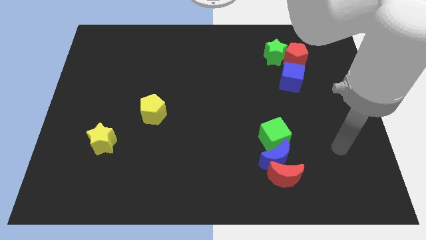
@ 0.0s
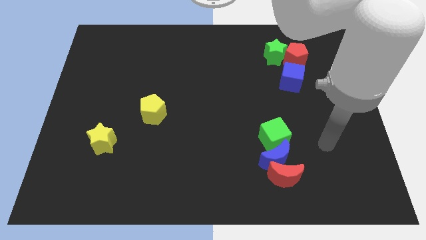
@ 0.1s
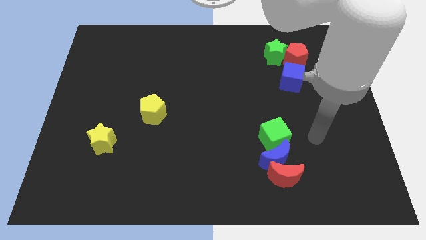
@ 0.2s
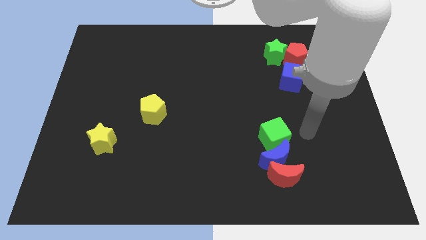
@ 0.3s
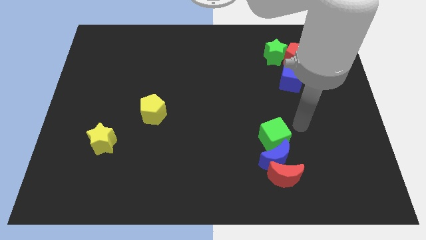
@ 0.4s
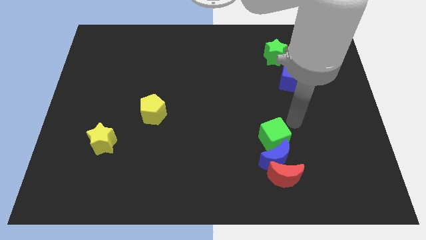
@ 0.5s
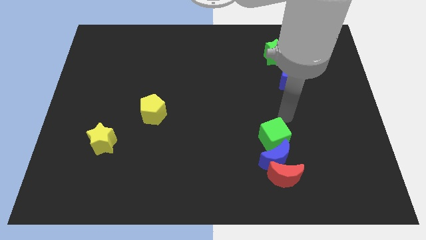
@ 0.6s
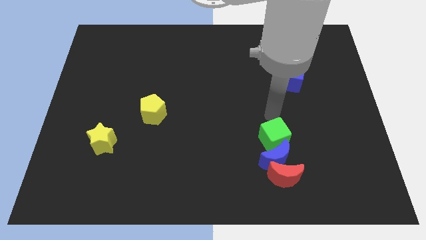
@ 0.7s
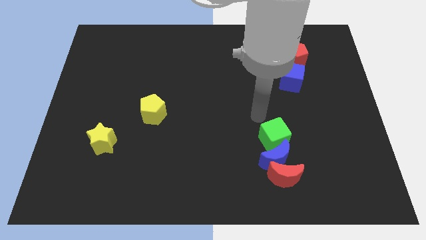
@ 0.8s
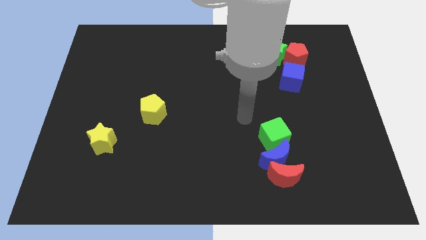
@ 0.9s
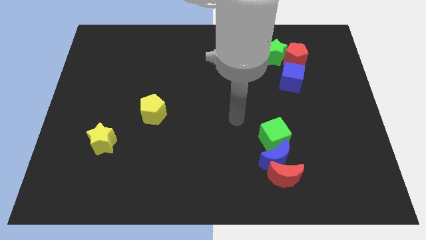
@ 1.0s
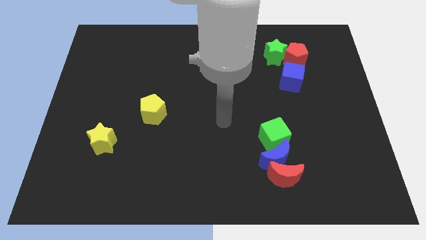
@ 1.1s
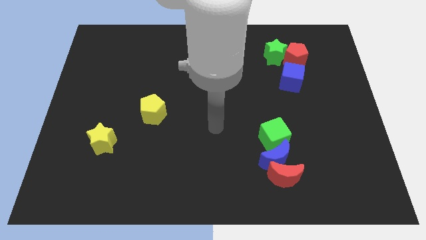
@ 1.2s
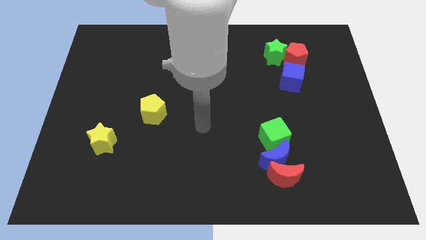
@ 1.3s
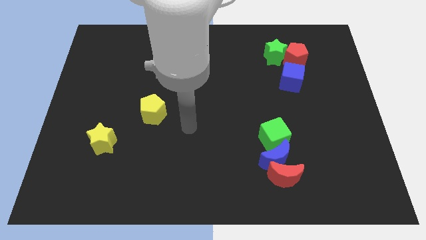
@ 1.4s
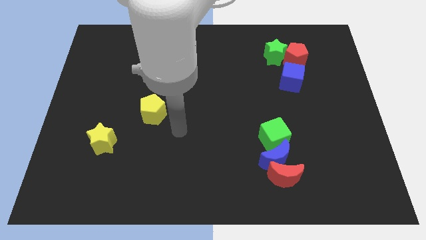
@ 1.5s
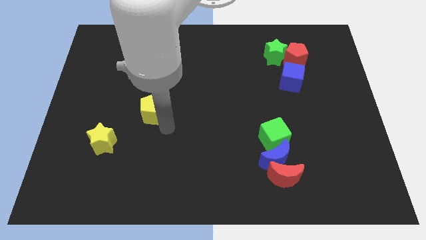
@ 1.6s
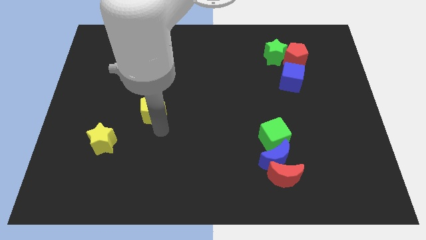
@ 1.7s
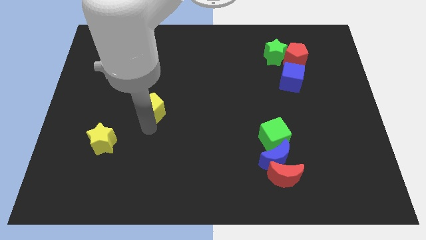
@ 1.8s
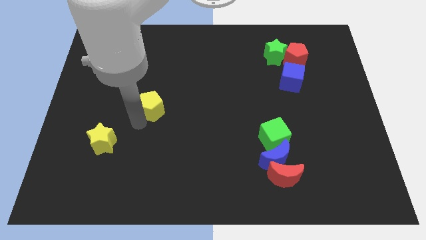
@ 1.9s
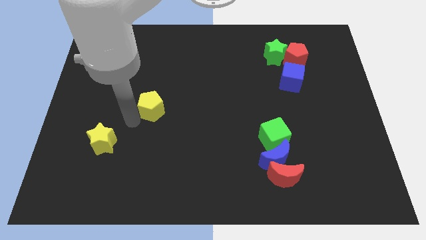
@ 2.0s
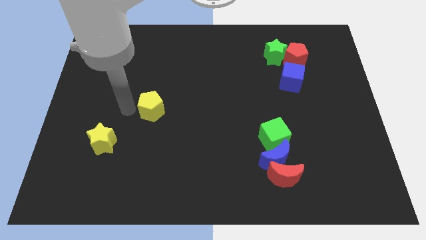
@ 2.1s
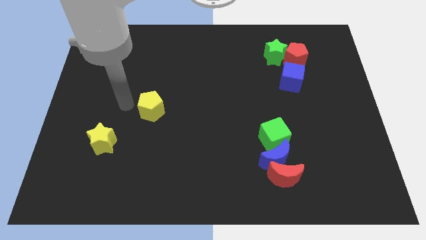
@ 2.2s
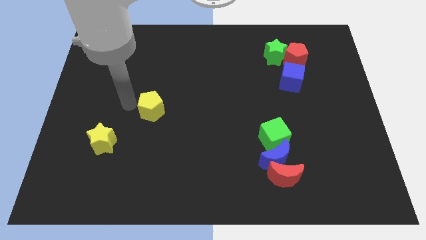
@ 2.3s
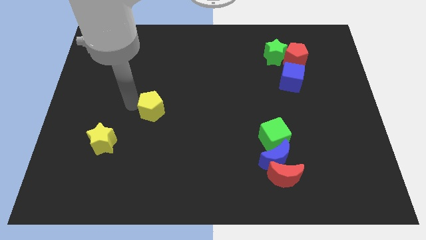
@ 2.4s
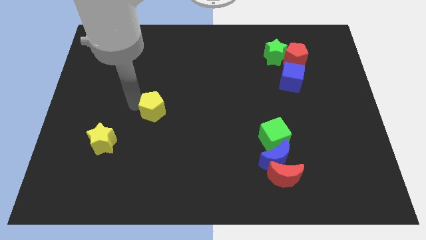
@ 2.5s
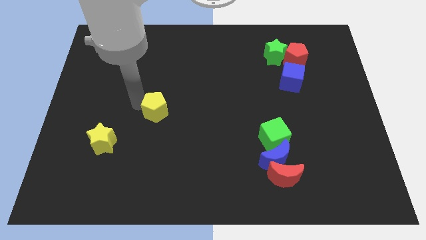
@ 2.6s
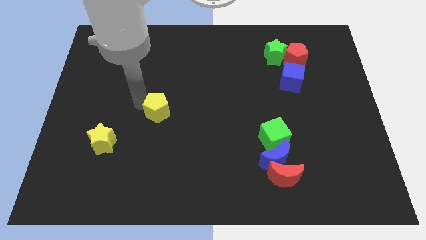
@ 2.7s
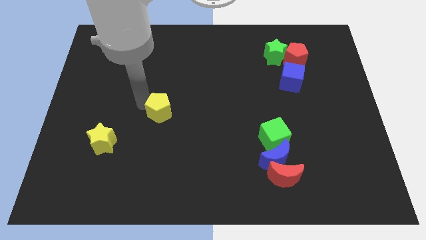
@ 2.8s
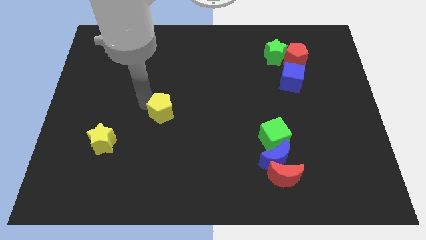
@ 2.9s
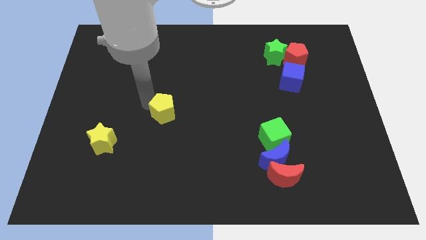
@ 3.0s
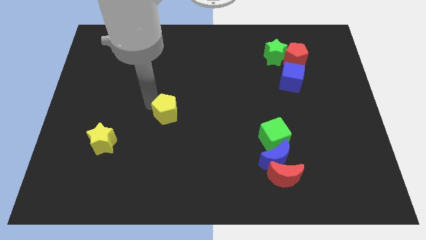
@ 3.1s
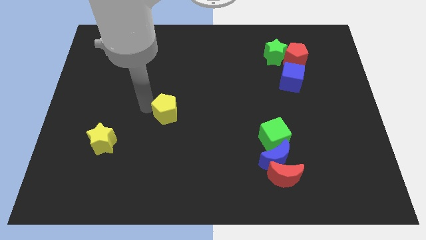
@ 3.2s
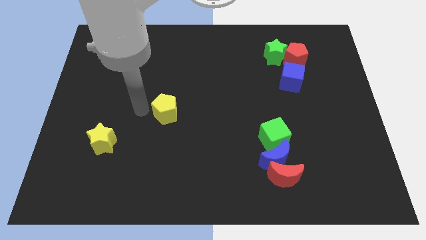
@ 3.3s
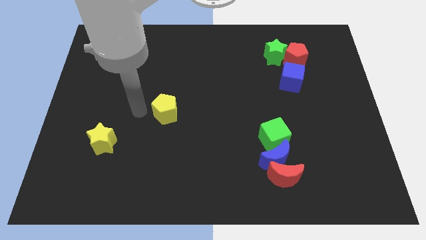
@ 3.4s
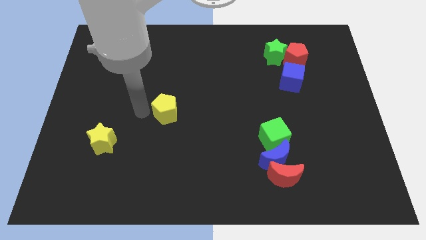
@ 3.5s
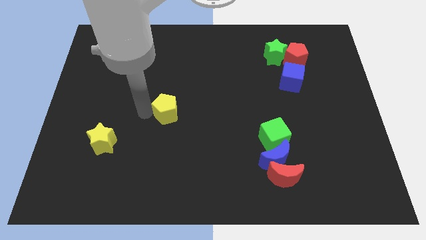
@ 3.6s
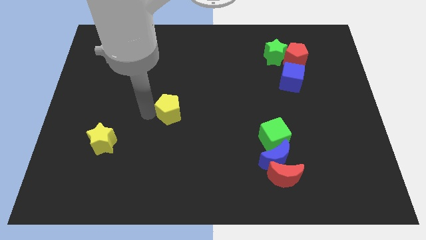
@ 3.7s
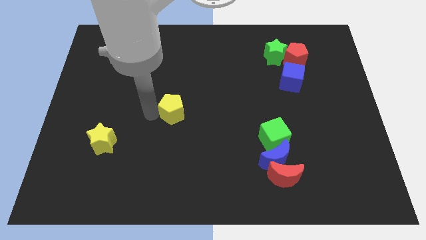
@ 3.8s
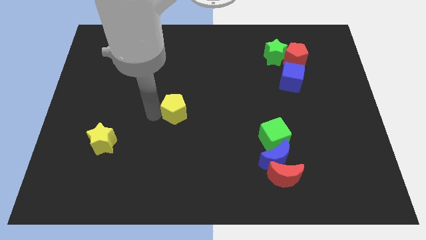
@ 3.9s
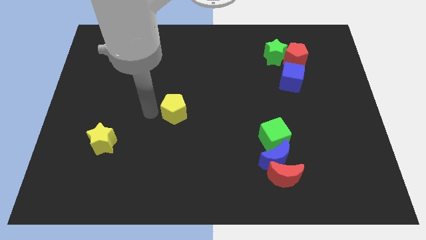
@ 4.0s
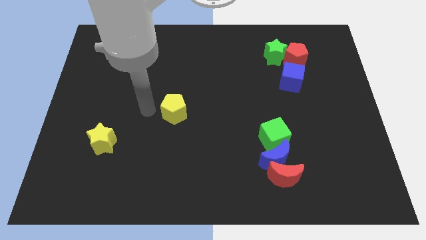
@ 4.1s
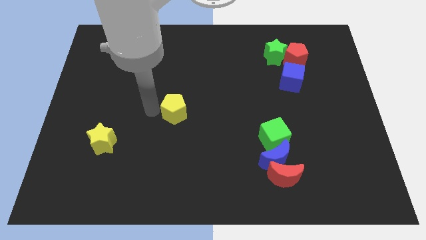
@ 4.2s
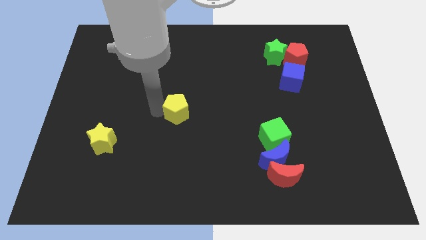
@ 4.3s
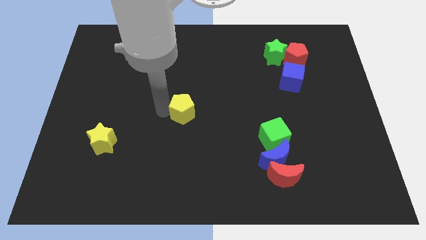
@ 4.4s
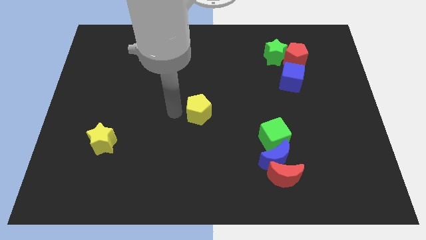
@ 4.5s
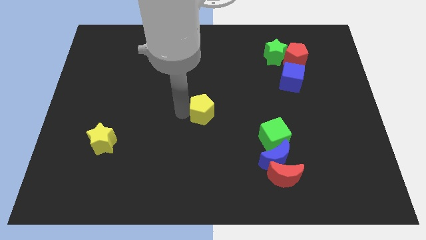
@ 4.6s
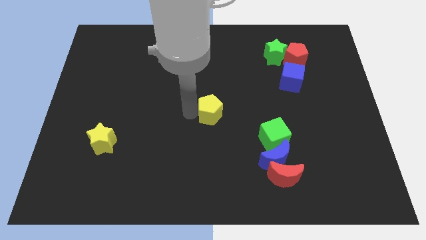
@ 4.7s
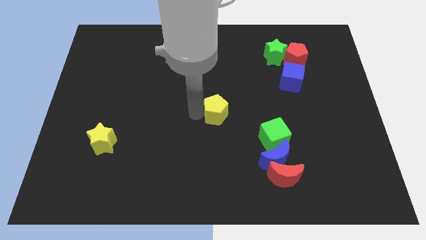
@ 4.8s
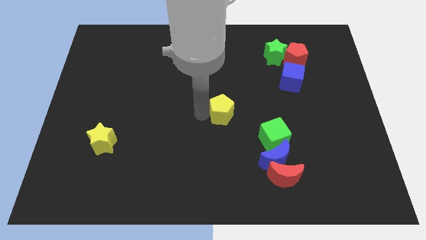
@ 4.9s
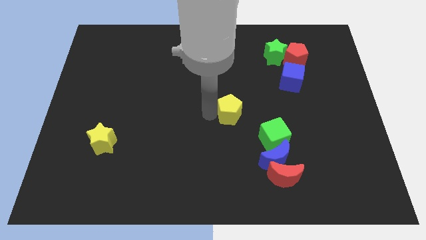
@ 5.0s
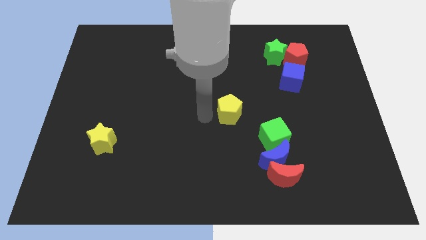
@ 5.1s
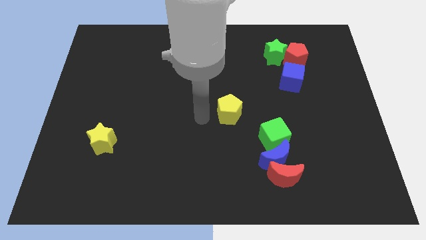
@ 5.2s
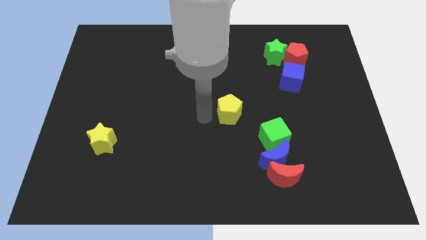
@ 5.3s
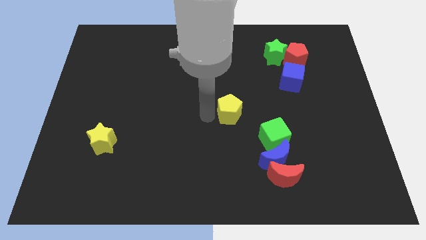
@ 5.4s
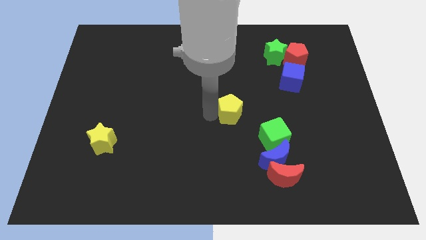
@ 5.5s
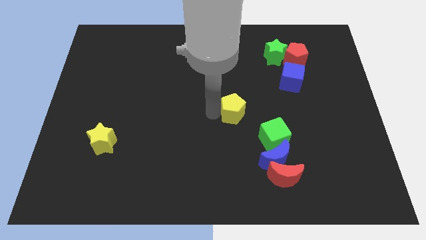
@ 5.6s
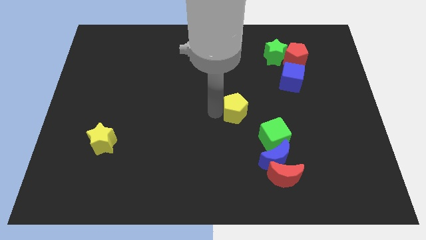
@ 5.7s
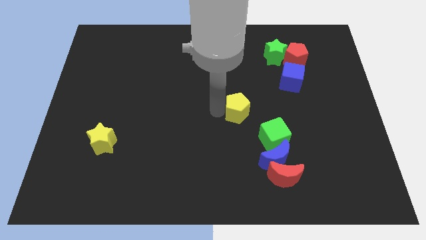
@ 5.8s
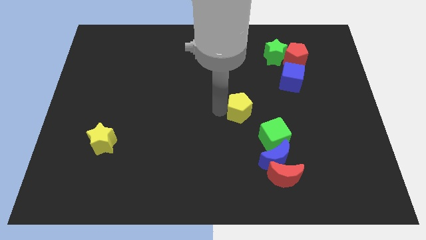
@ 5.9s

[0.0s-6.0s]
move the yellow pentagon right

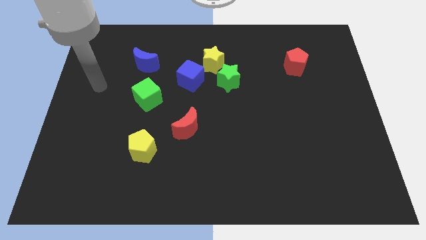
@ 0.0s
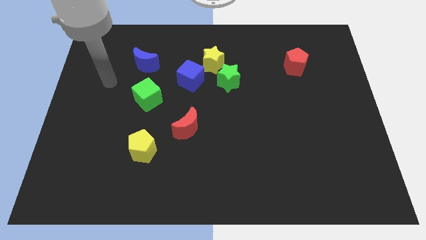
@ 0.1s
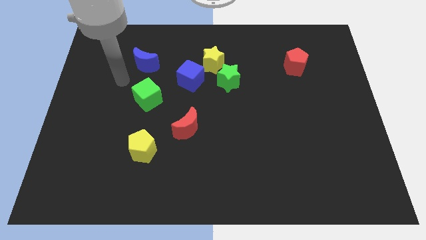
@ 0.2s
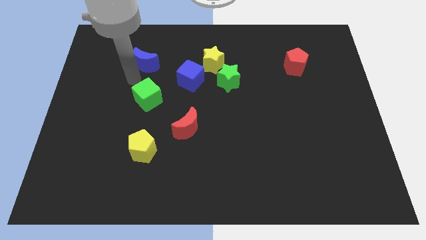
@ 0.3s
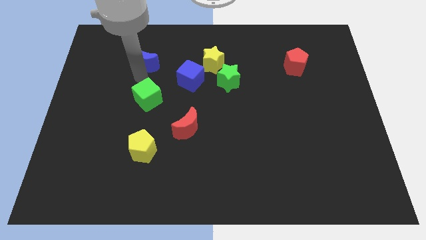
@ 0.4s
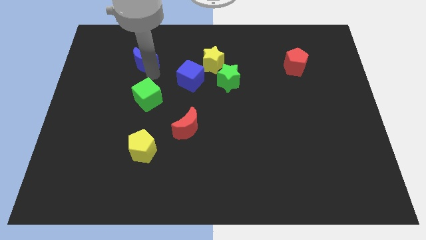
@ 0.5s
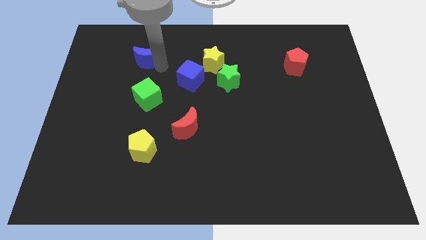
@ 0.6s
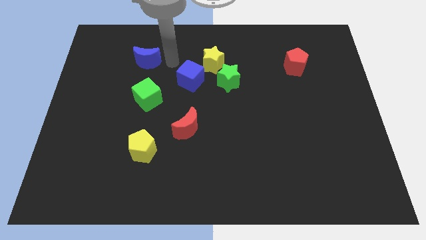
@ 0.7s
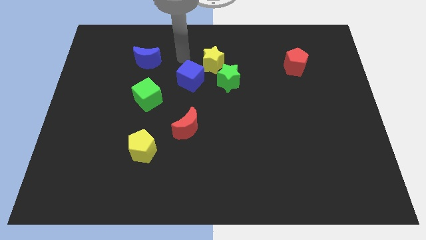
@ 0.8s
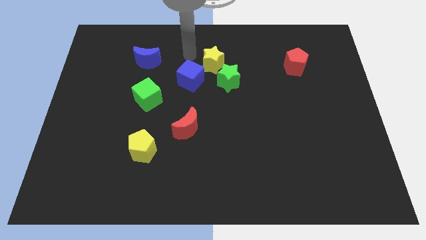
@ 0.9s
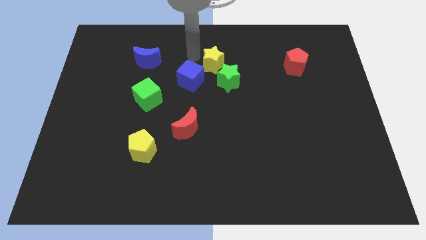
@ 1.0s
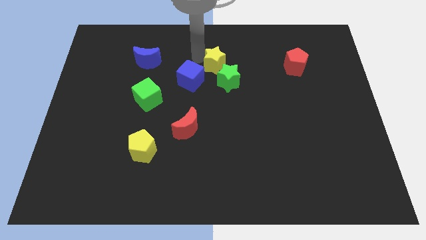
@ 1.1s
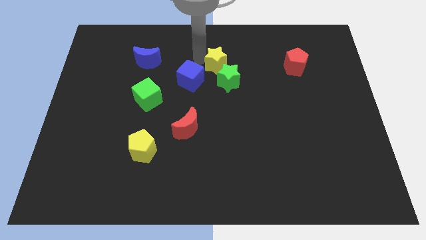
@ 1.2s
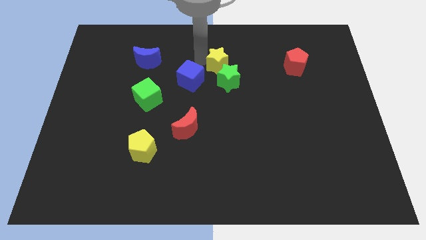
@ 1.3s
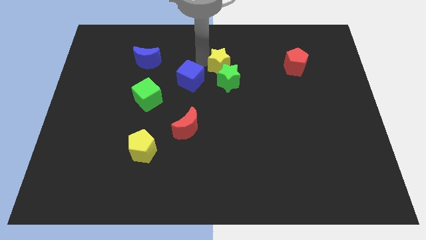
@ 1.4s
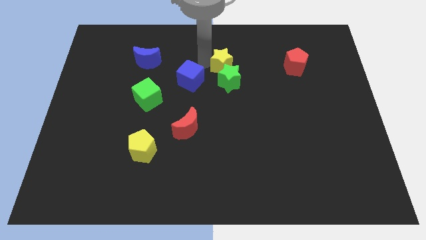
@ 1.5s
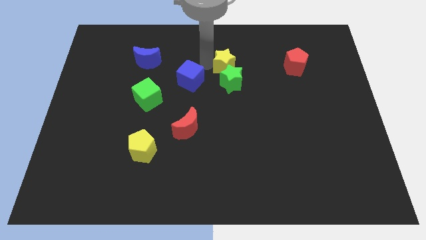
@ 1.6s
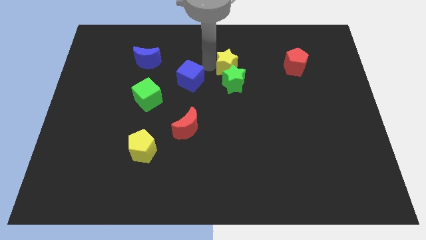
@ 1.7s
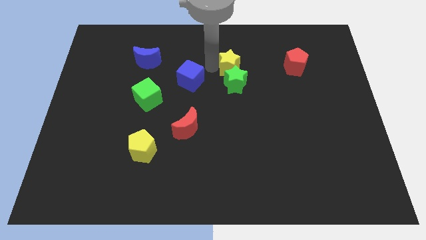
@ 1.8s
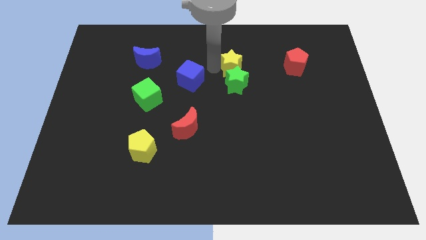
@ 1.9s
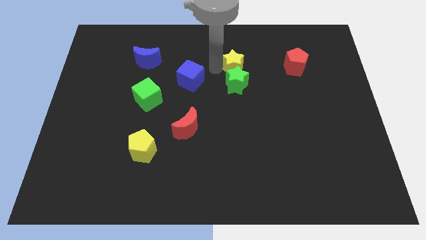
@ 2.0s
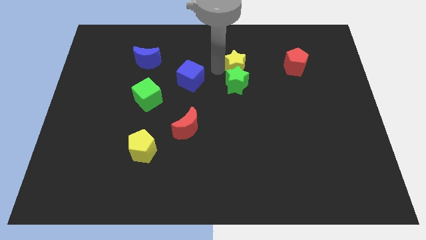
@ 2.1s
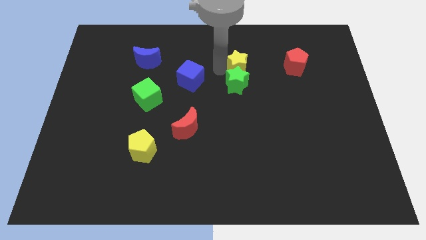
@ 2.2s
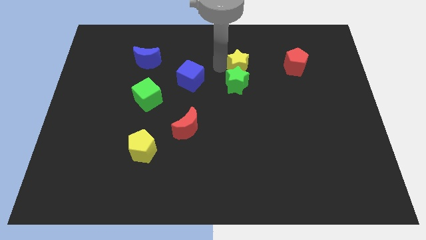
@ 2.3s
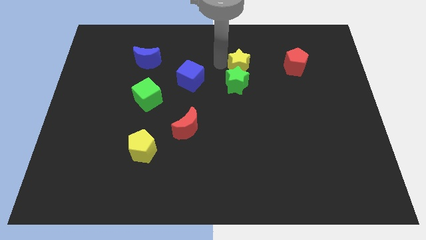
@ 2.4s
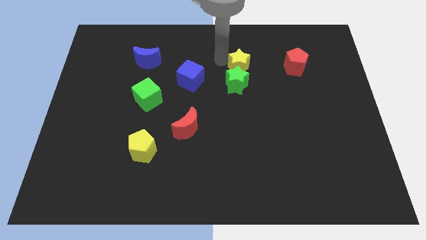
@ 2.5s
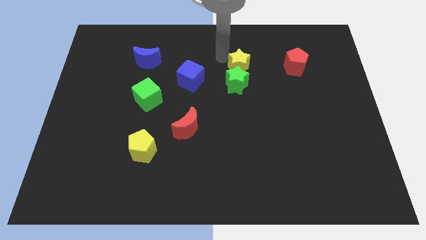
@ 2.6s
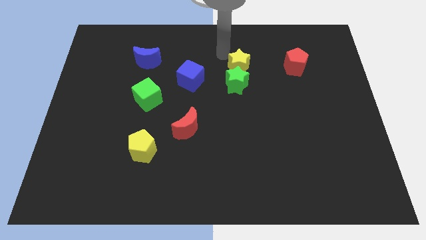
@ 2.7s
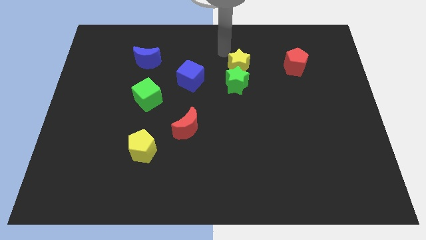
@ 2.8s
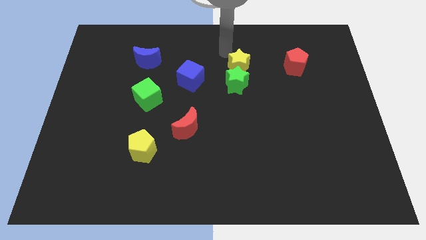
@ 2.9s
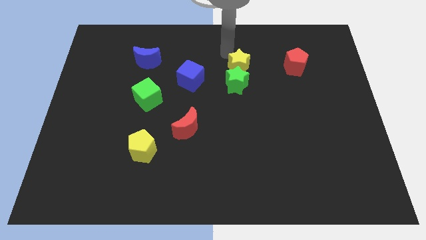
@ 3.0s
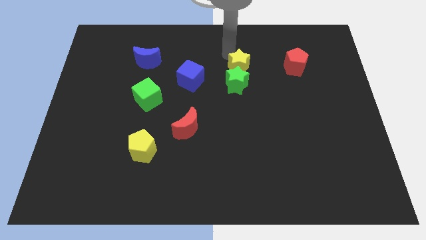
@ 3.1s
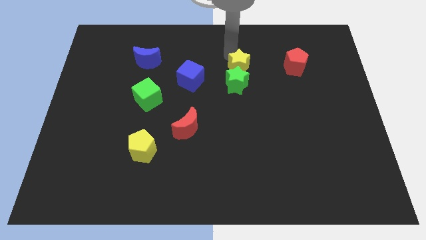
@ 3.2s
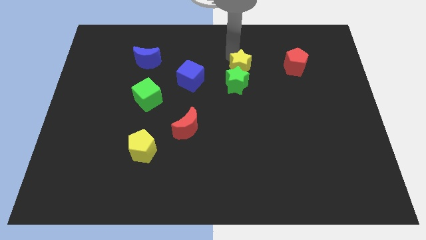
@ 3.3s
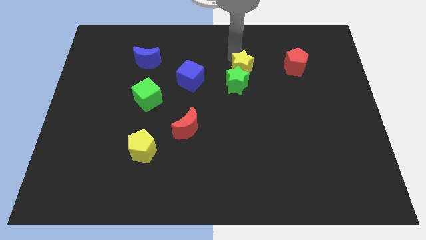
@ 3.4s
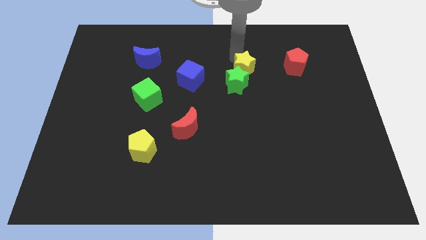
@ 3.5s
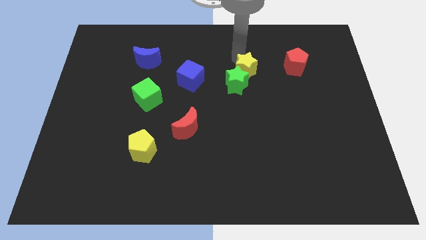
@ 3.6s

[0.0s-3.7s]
move the yellow star a little bit down and to the right diagonally
